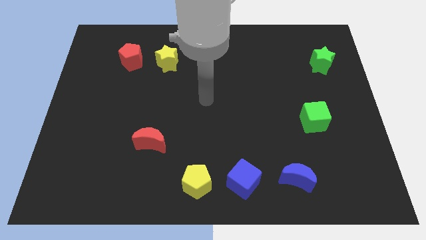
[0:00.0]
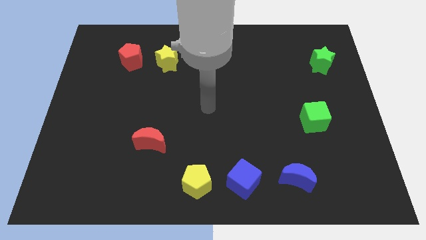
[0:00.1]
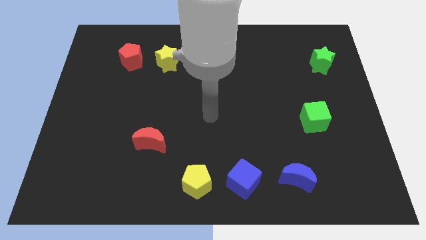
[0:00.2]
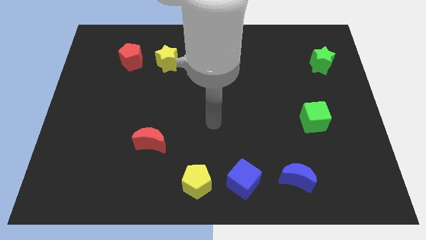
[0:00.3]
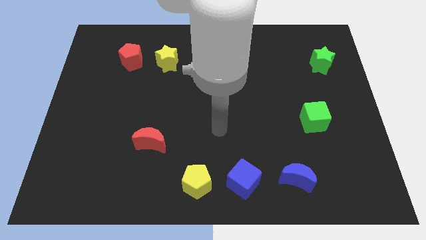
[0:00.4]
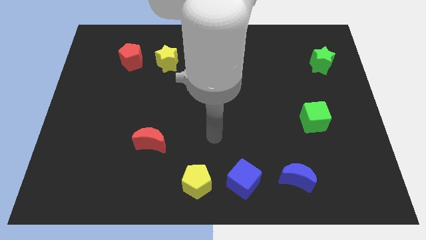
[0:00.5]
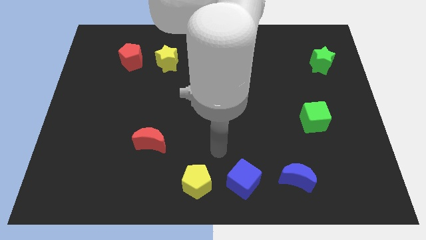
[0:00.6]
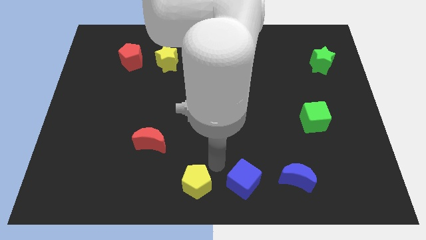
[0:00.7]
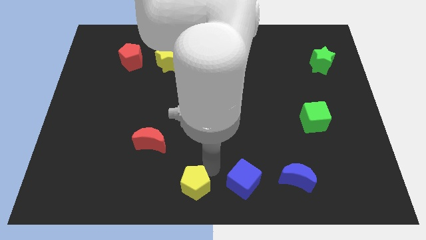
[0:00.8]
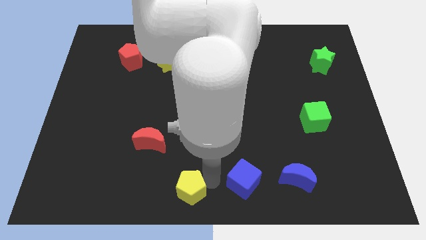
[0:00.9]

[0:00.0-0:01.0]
pull the blue cube apart from the yellow pentagon

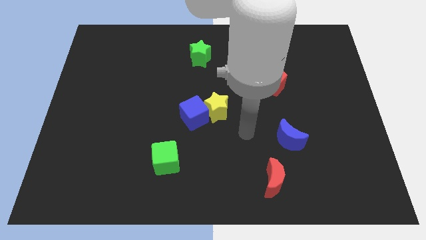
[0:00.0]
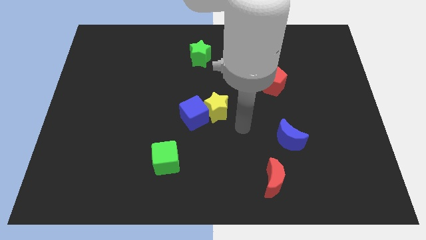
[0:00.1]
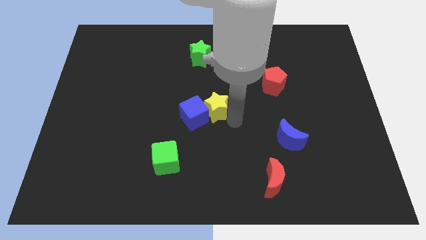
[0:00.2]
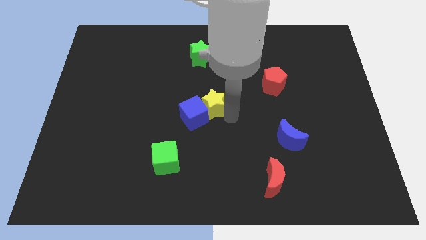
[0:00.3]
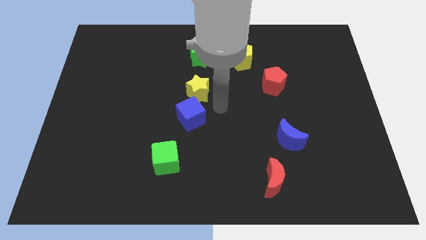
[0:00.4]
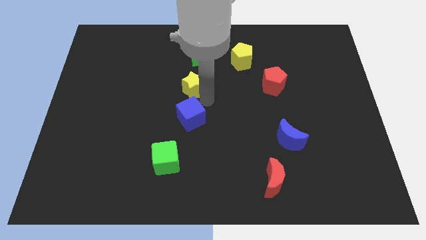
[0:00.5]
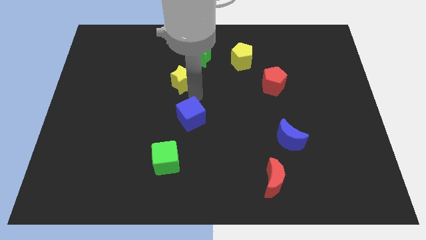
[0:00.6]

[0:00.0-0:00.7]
pull the blue cube apart from the yellow star

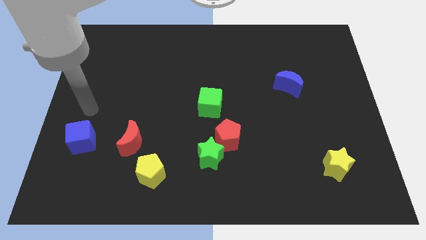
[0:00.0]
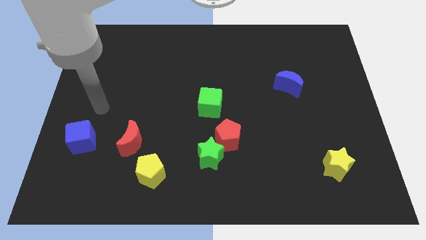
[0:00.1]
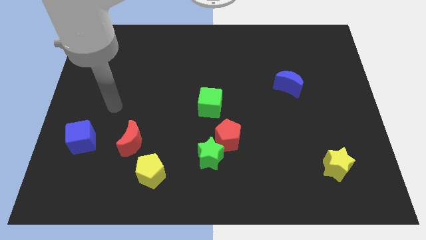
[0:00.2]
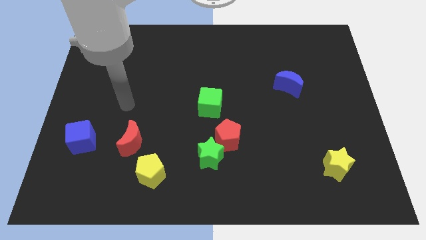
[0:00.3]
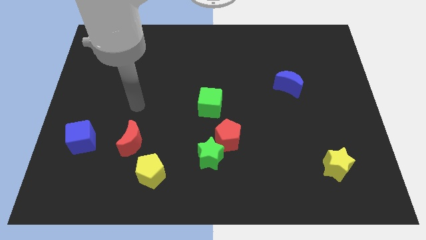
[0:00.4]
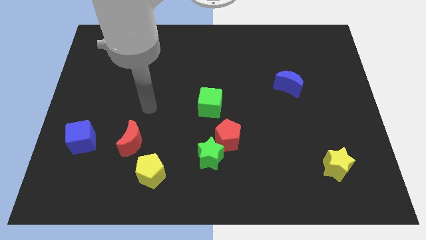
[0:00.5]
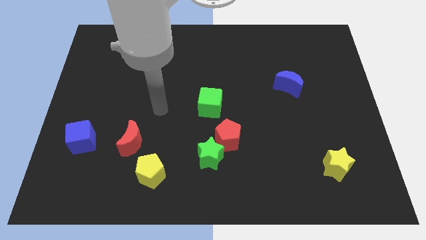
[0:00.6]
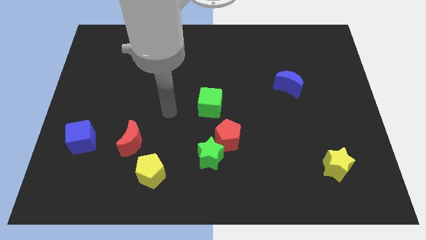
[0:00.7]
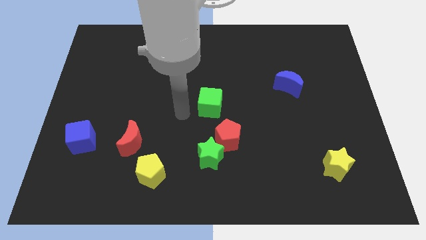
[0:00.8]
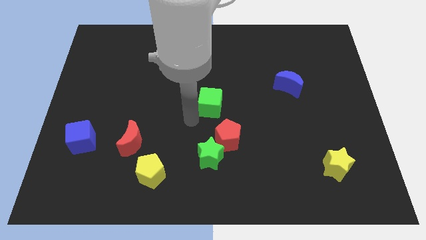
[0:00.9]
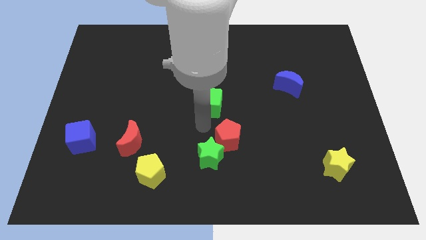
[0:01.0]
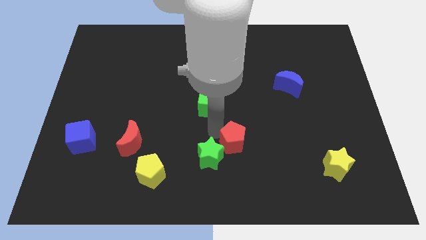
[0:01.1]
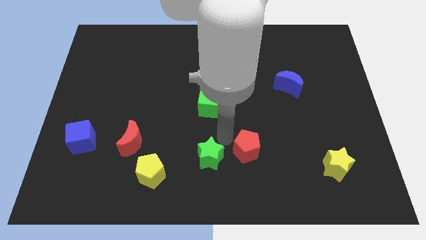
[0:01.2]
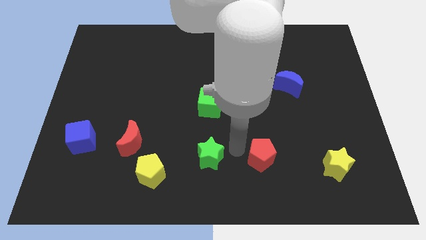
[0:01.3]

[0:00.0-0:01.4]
separate the green star from the red pentagon

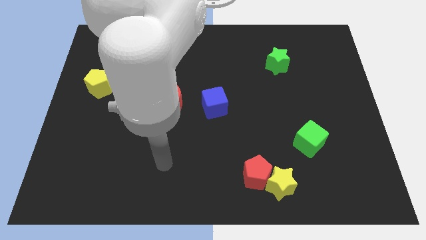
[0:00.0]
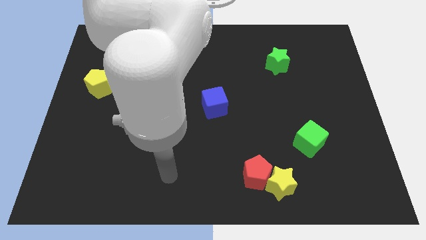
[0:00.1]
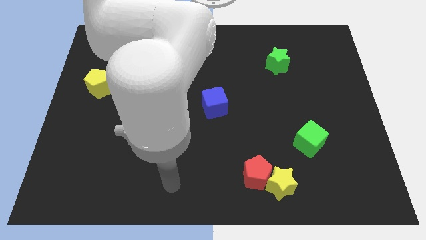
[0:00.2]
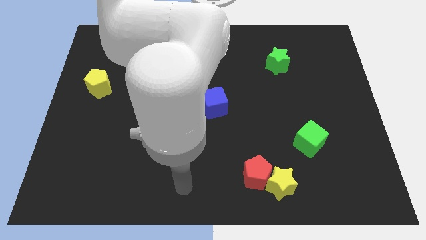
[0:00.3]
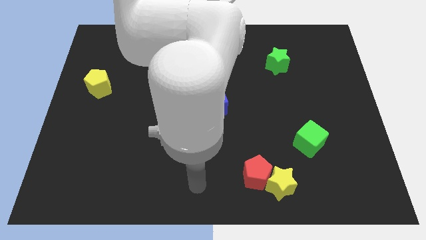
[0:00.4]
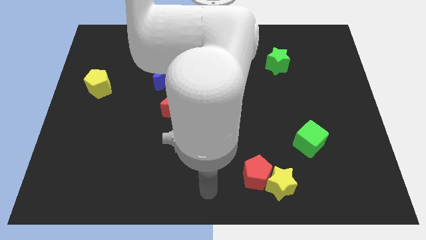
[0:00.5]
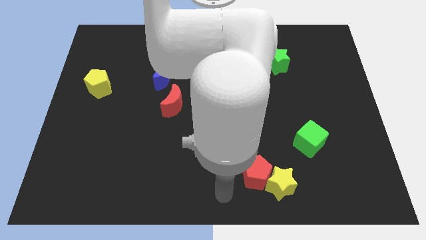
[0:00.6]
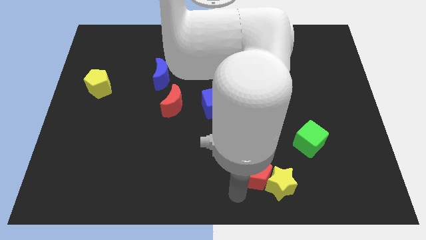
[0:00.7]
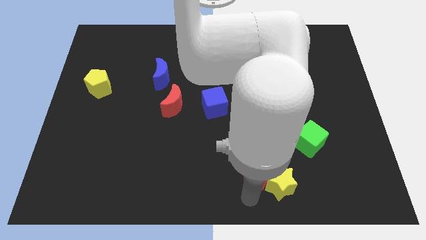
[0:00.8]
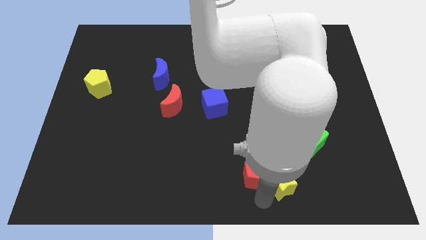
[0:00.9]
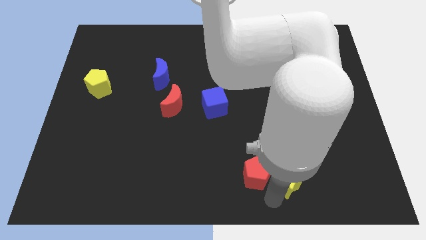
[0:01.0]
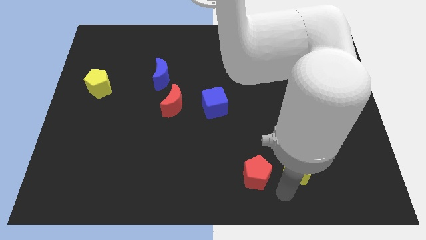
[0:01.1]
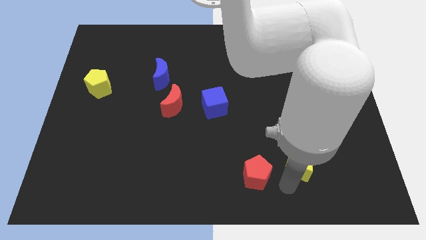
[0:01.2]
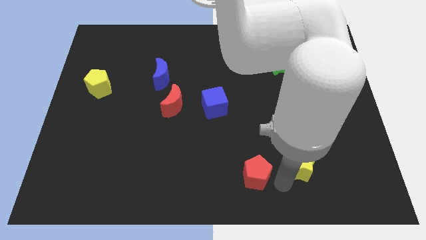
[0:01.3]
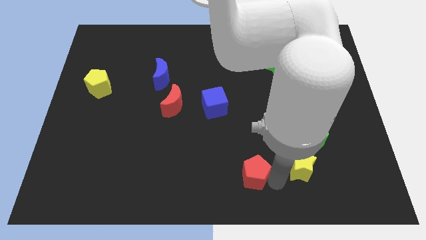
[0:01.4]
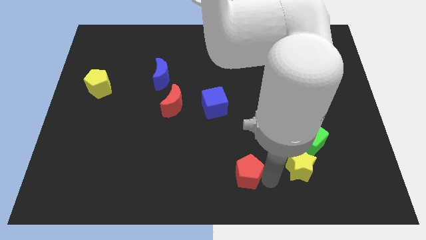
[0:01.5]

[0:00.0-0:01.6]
separate the red pentagon from the yellow star

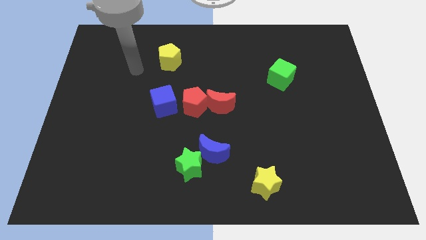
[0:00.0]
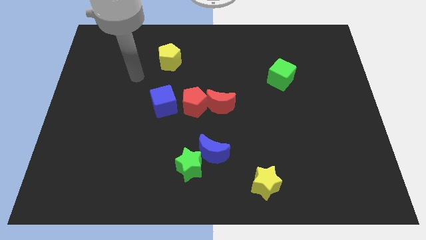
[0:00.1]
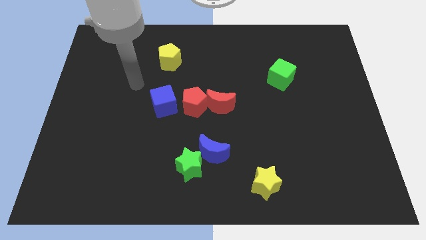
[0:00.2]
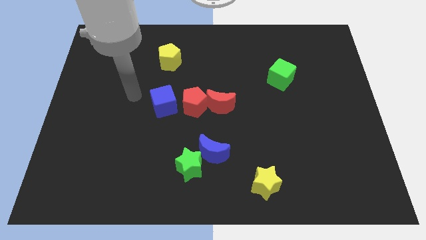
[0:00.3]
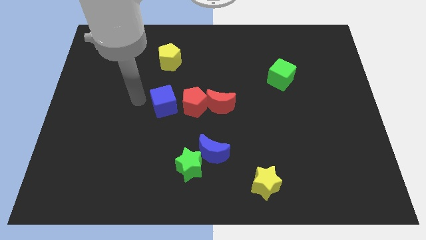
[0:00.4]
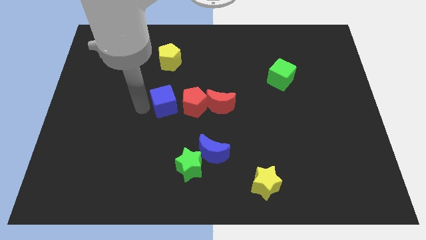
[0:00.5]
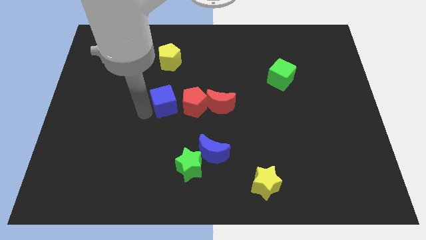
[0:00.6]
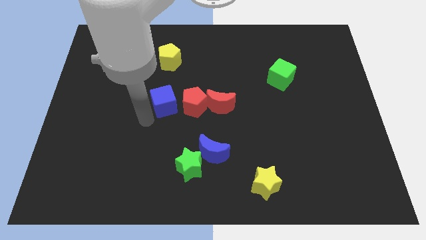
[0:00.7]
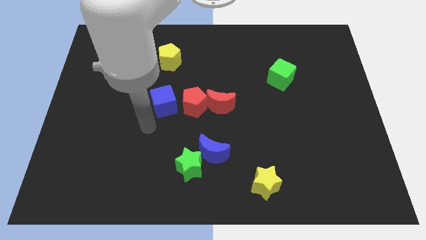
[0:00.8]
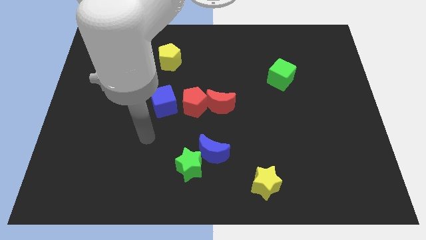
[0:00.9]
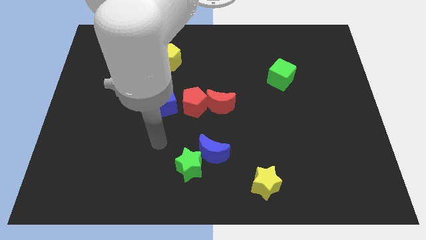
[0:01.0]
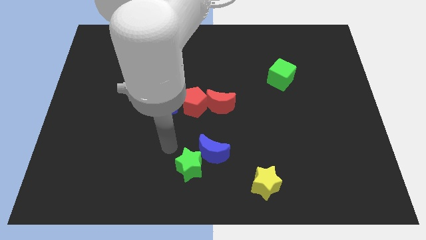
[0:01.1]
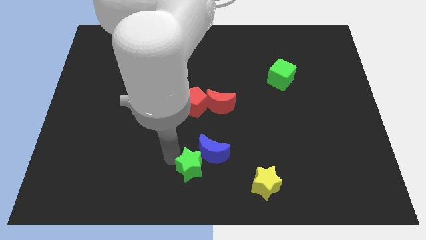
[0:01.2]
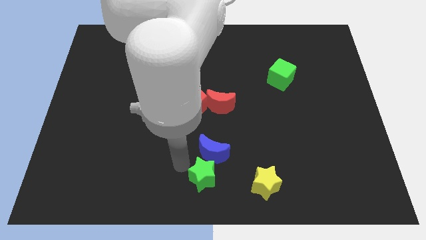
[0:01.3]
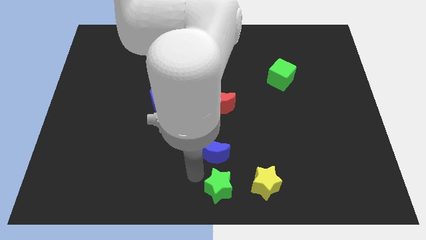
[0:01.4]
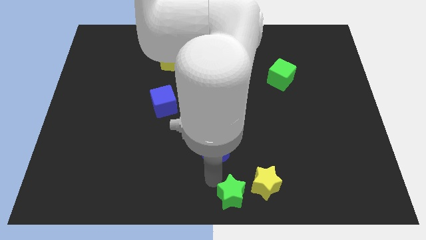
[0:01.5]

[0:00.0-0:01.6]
pull the blue moon apart from the green star

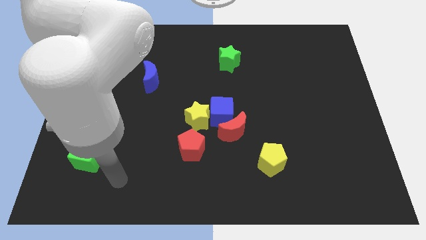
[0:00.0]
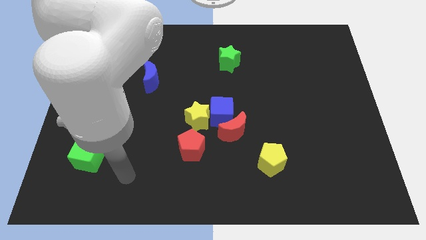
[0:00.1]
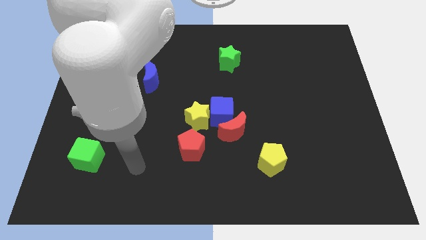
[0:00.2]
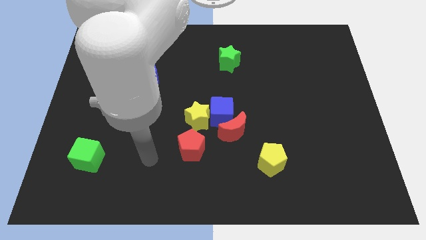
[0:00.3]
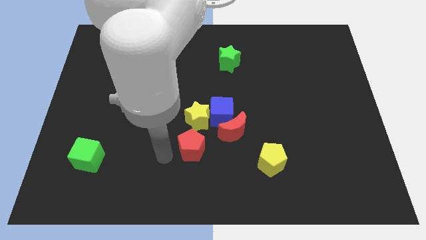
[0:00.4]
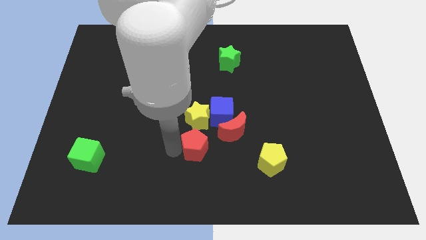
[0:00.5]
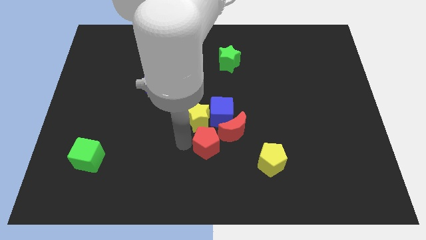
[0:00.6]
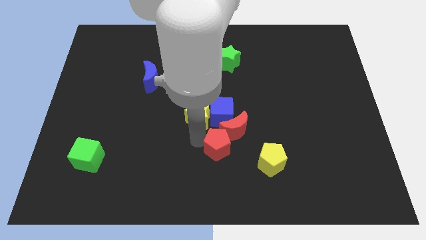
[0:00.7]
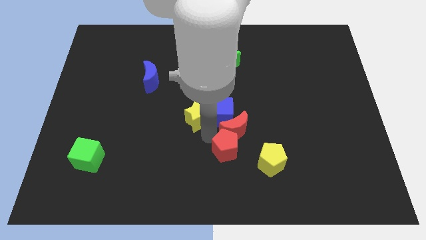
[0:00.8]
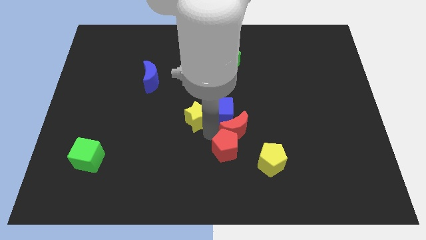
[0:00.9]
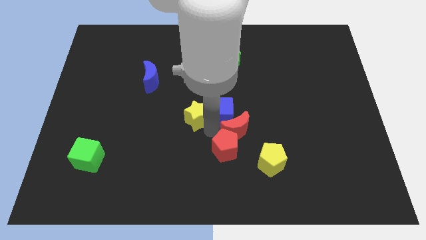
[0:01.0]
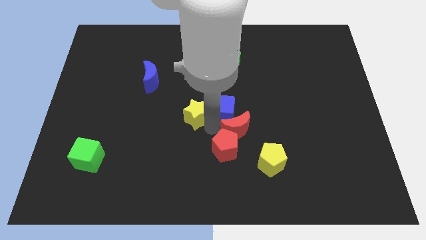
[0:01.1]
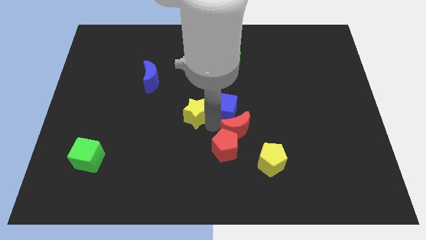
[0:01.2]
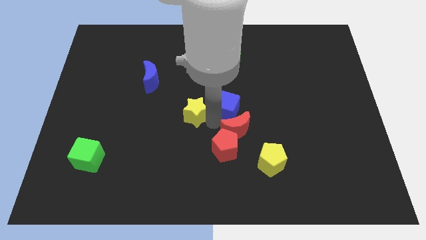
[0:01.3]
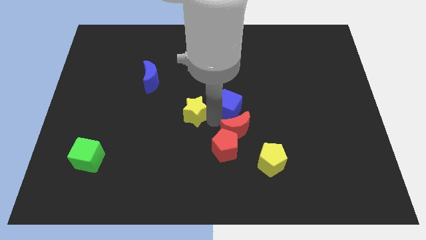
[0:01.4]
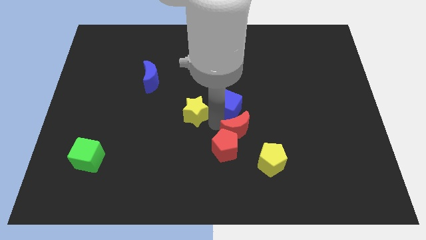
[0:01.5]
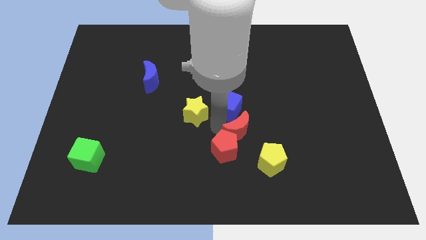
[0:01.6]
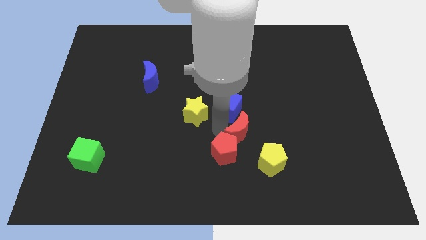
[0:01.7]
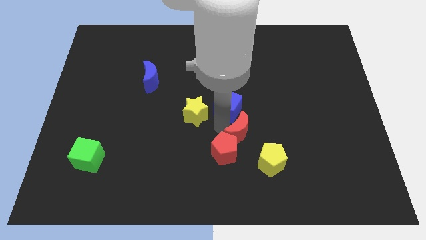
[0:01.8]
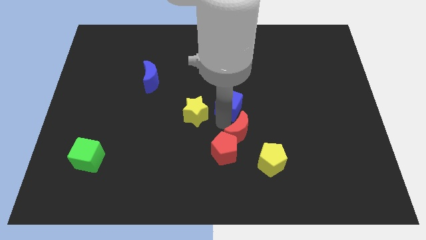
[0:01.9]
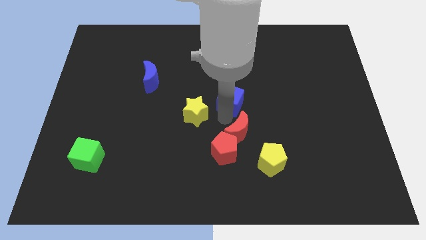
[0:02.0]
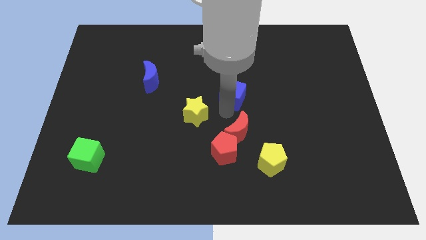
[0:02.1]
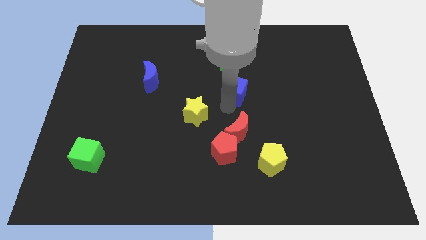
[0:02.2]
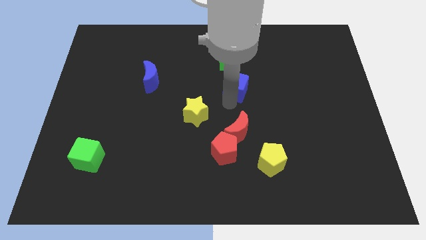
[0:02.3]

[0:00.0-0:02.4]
separate the blue cube from the red moon and yellow star
